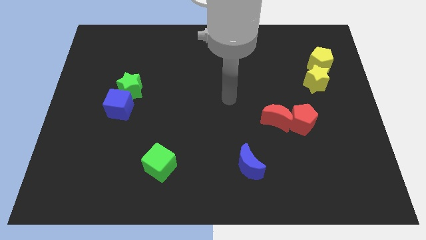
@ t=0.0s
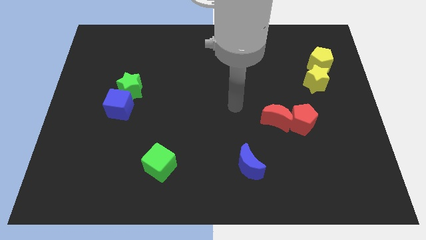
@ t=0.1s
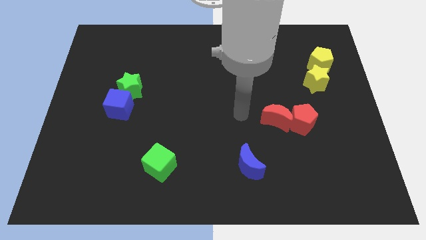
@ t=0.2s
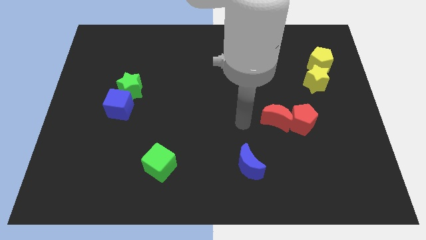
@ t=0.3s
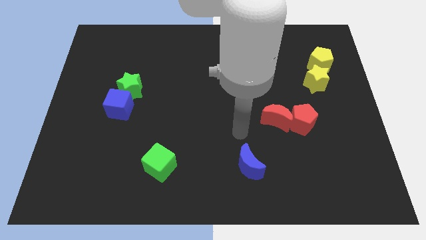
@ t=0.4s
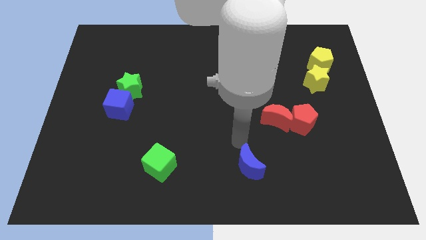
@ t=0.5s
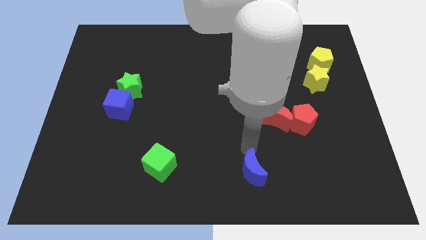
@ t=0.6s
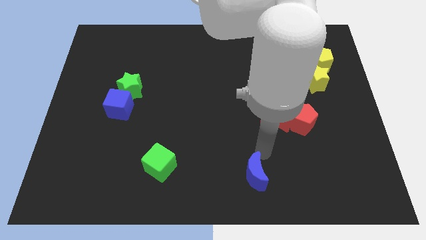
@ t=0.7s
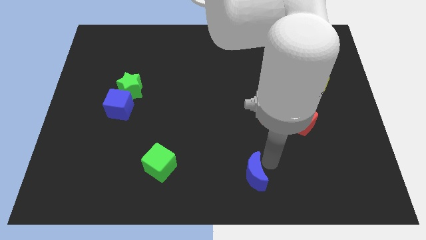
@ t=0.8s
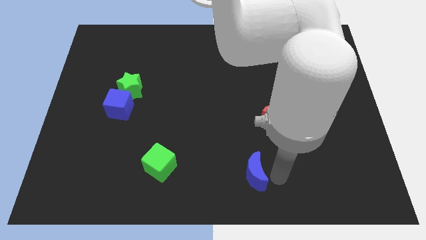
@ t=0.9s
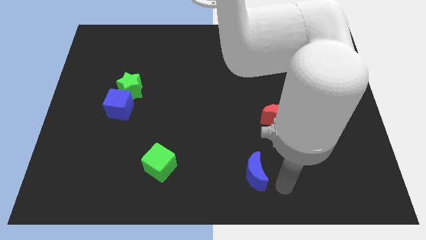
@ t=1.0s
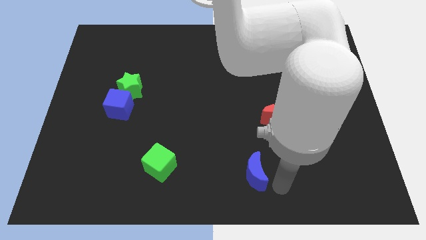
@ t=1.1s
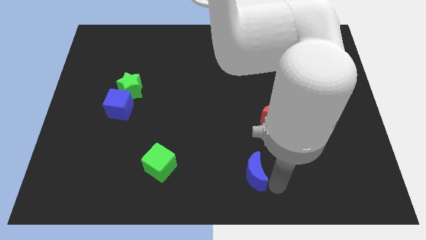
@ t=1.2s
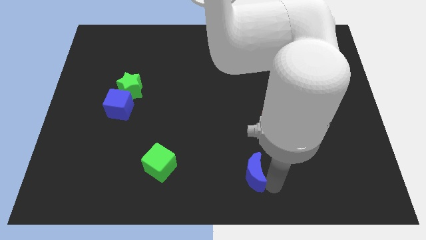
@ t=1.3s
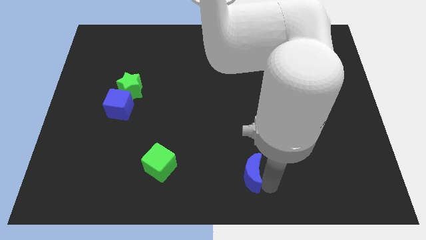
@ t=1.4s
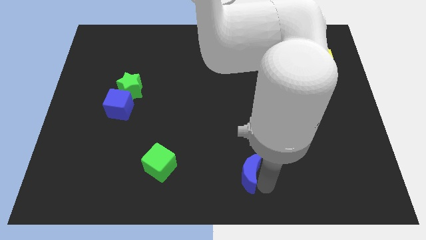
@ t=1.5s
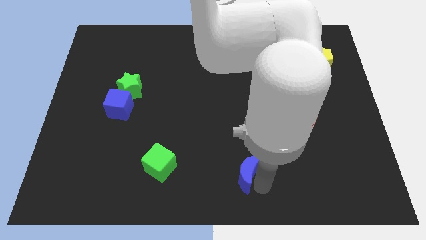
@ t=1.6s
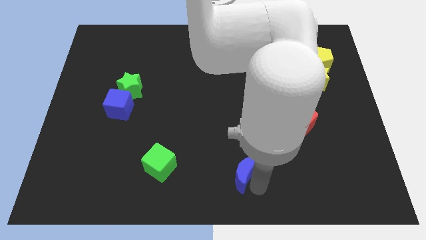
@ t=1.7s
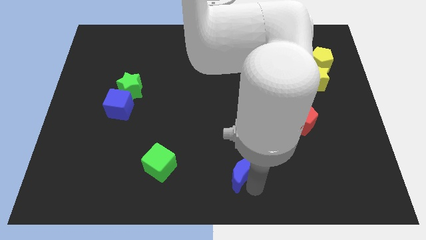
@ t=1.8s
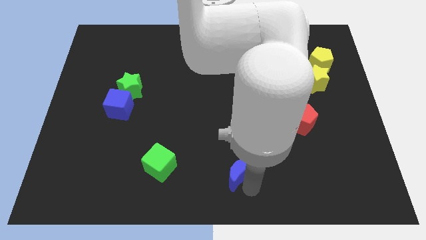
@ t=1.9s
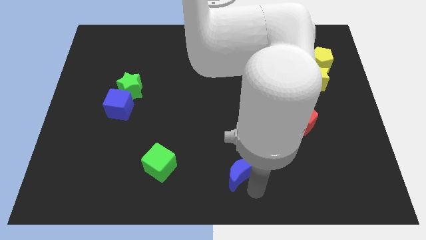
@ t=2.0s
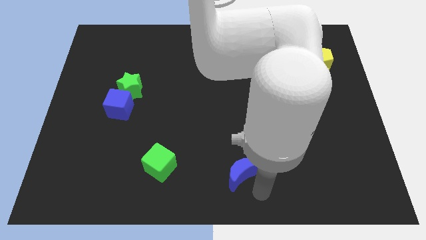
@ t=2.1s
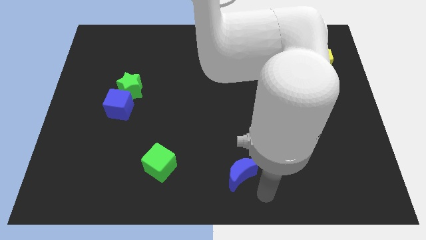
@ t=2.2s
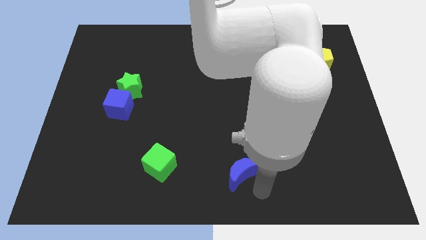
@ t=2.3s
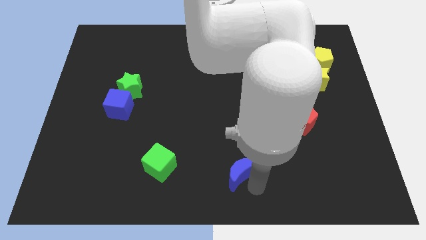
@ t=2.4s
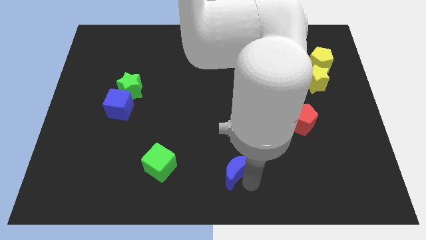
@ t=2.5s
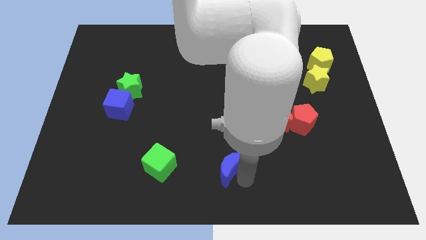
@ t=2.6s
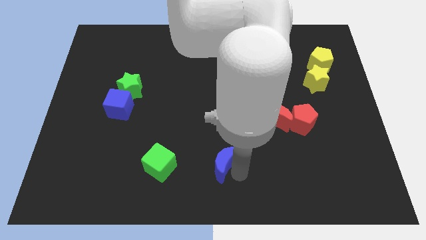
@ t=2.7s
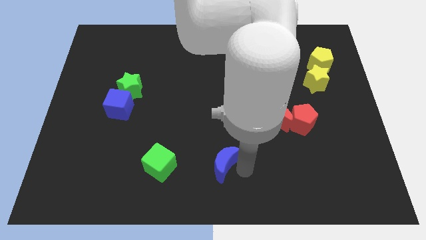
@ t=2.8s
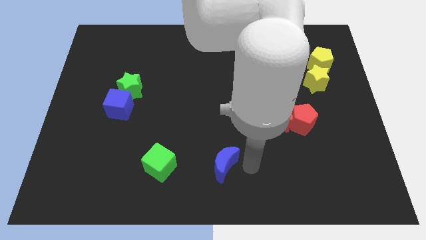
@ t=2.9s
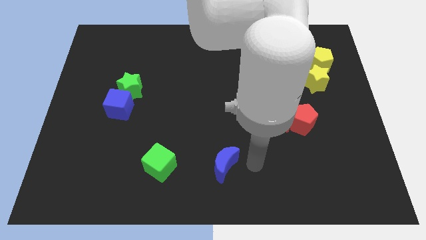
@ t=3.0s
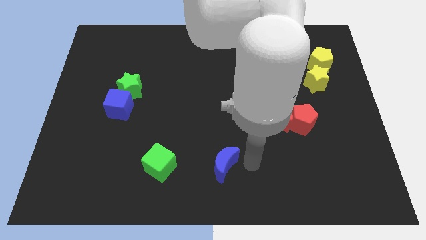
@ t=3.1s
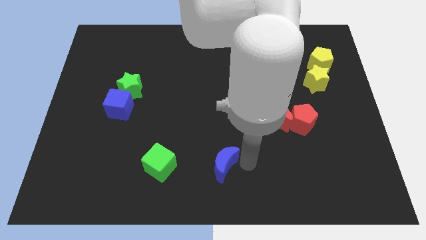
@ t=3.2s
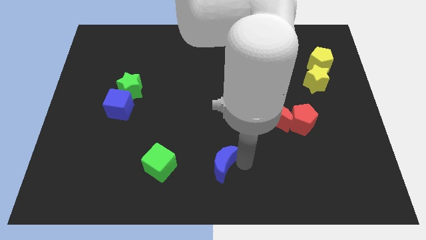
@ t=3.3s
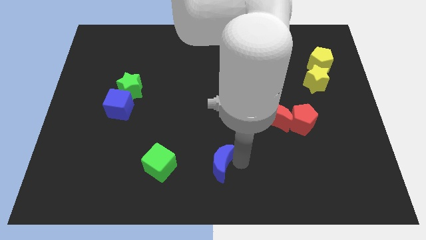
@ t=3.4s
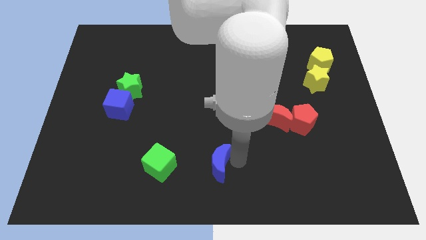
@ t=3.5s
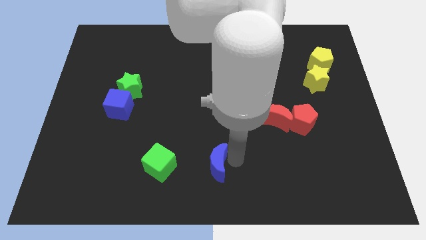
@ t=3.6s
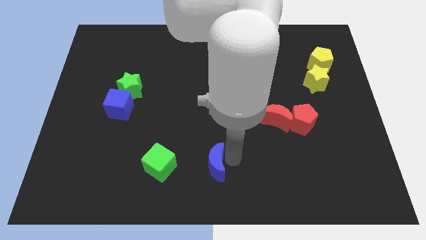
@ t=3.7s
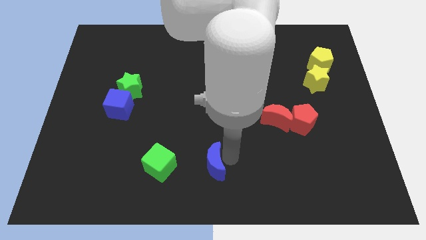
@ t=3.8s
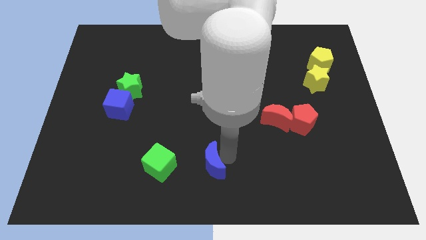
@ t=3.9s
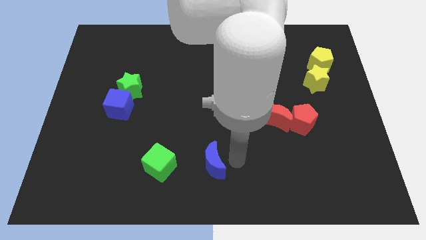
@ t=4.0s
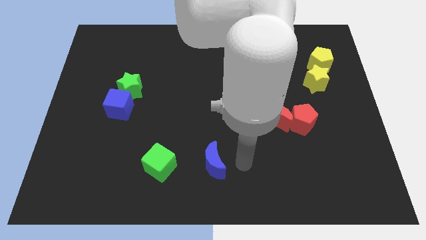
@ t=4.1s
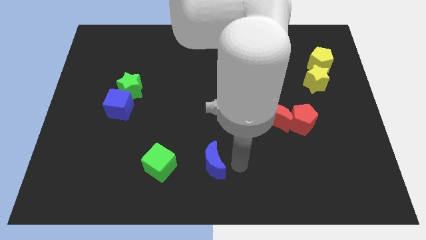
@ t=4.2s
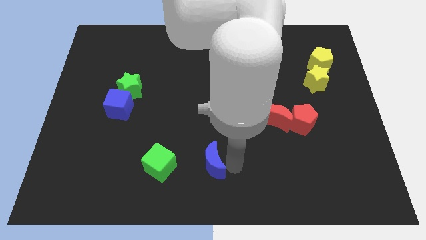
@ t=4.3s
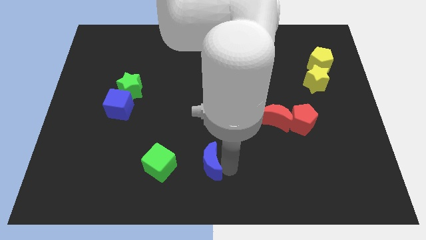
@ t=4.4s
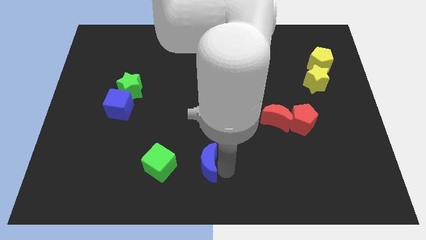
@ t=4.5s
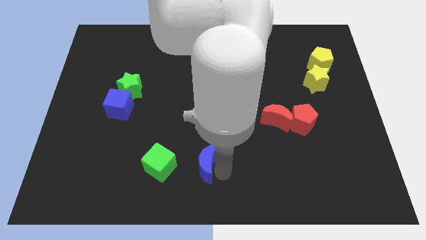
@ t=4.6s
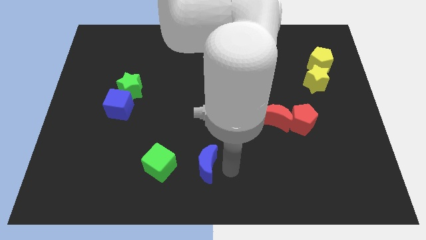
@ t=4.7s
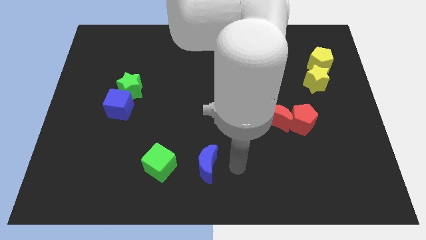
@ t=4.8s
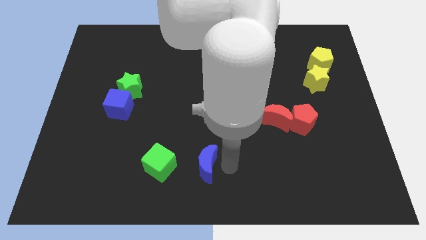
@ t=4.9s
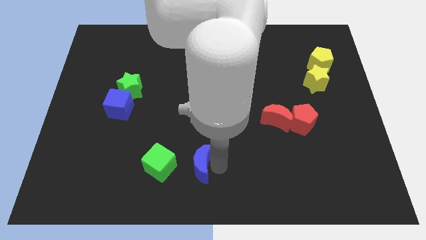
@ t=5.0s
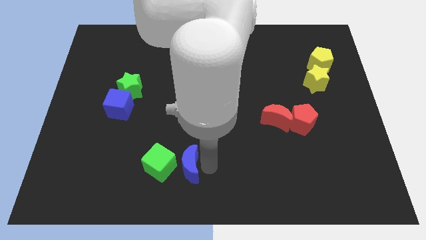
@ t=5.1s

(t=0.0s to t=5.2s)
put the blue moon to the green cube

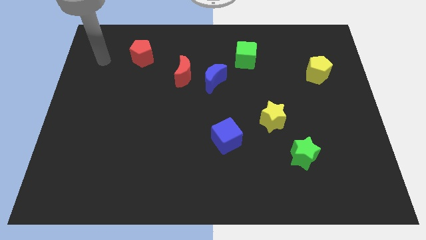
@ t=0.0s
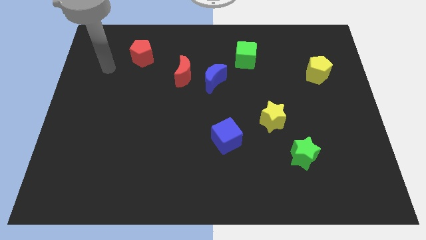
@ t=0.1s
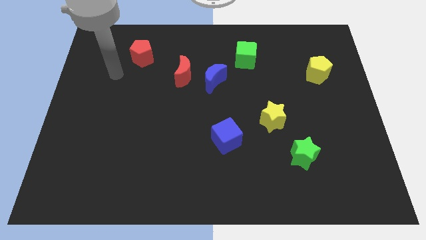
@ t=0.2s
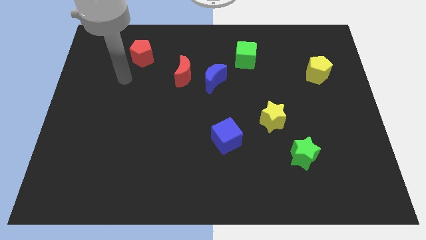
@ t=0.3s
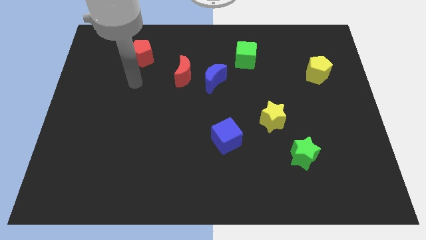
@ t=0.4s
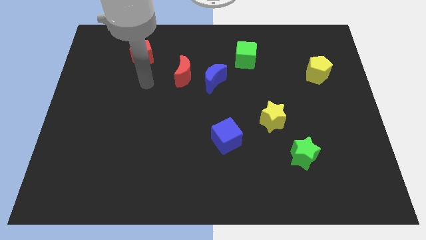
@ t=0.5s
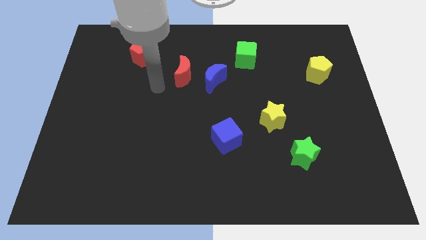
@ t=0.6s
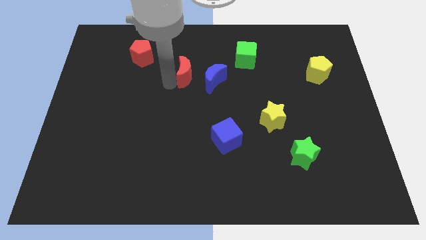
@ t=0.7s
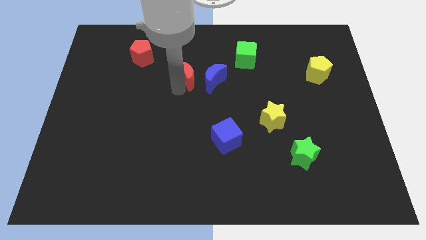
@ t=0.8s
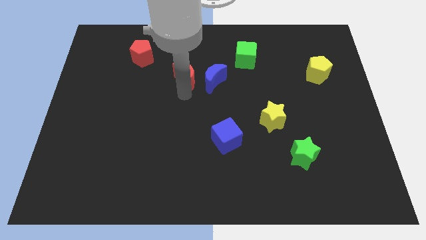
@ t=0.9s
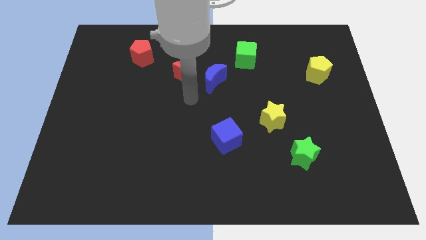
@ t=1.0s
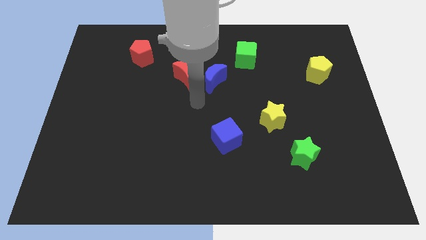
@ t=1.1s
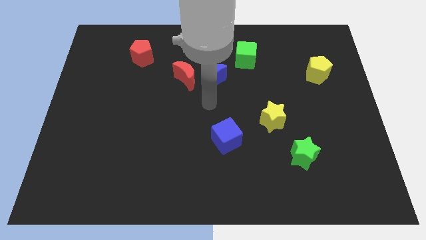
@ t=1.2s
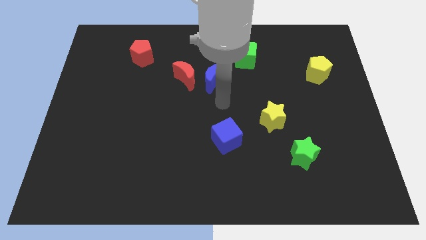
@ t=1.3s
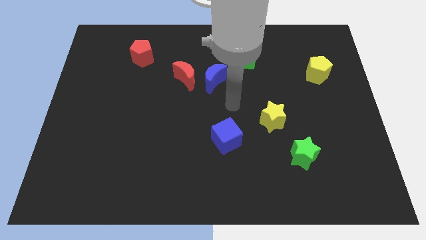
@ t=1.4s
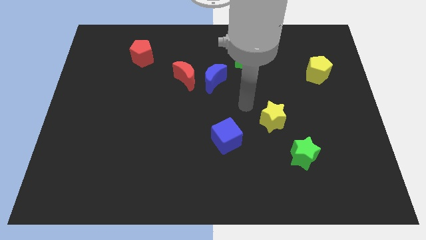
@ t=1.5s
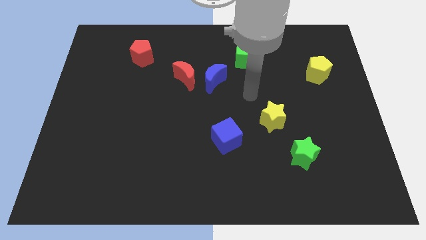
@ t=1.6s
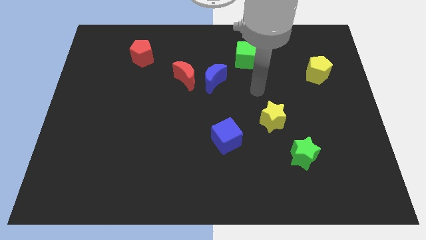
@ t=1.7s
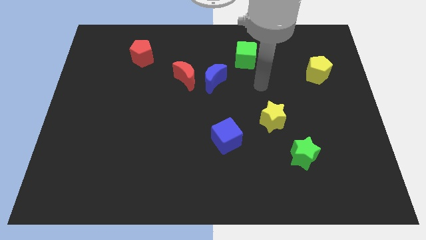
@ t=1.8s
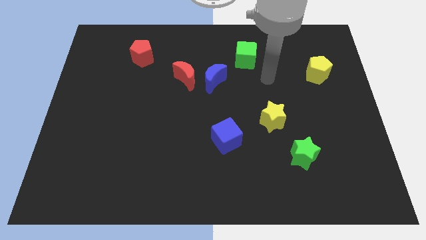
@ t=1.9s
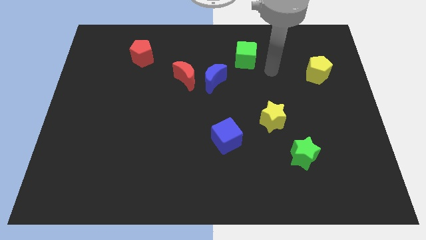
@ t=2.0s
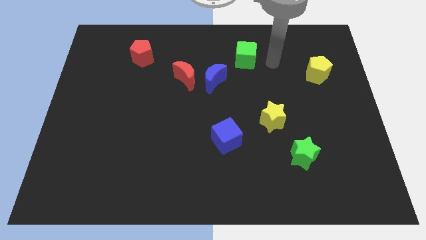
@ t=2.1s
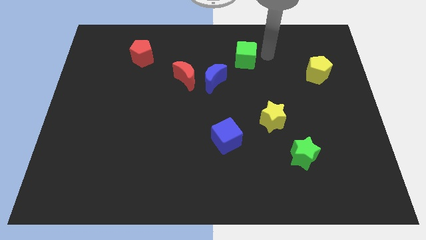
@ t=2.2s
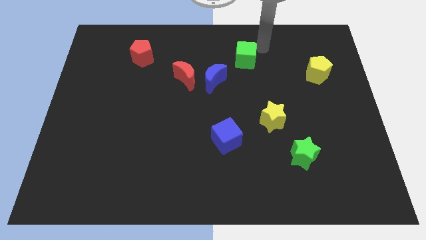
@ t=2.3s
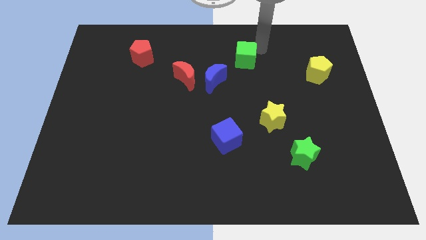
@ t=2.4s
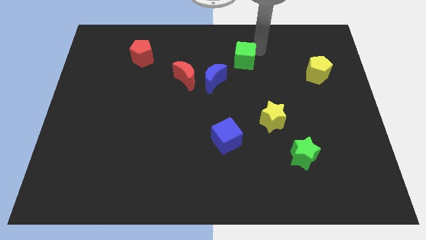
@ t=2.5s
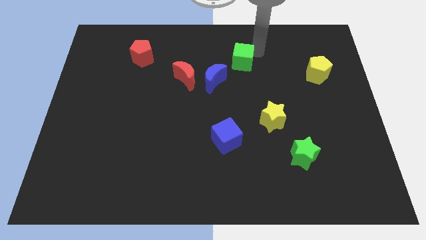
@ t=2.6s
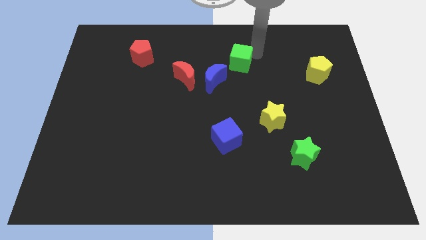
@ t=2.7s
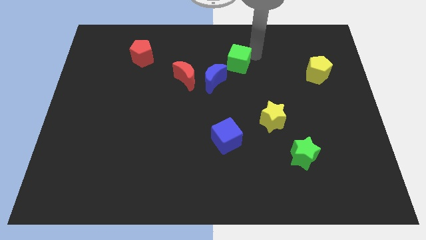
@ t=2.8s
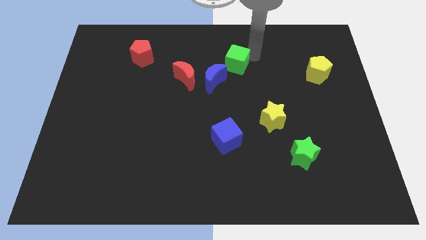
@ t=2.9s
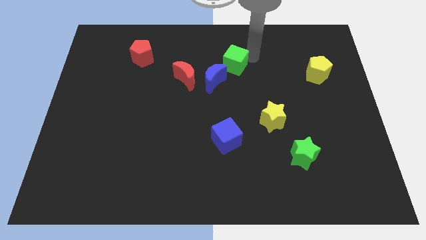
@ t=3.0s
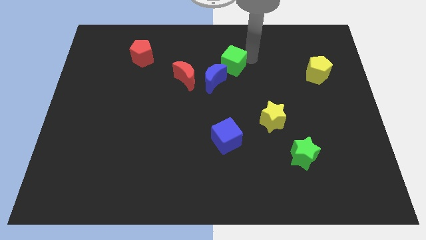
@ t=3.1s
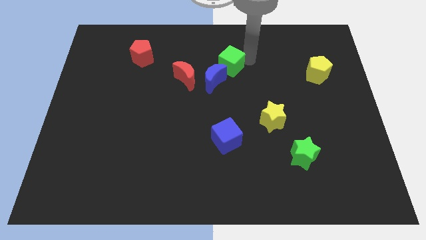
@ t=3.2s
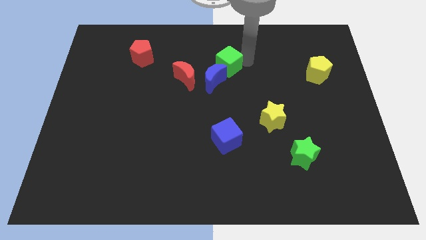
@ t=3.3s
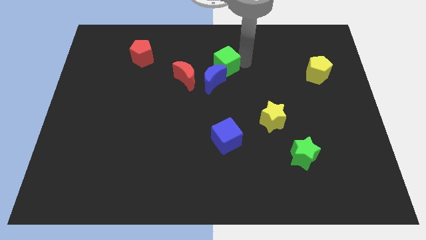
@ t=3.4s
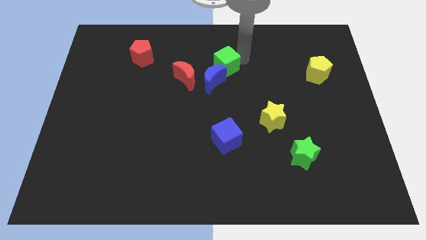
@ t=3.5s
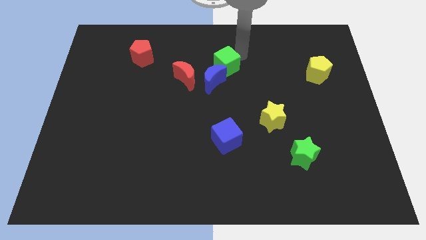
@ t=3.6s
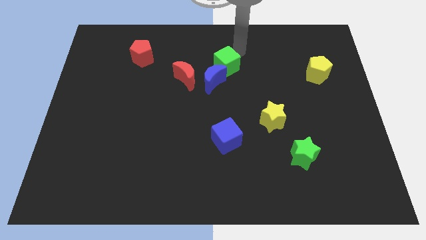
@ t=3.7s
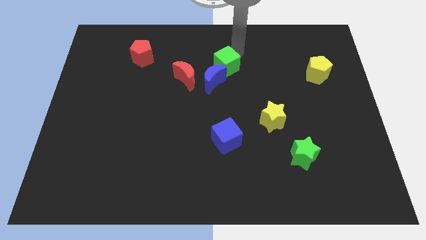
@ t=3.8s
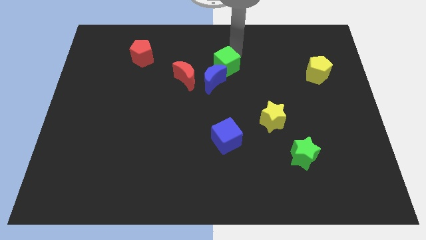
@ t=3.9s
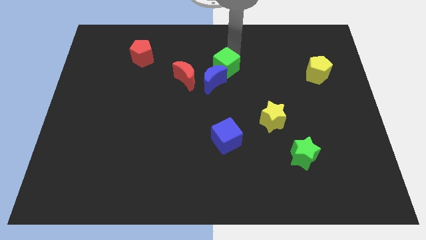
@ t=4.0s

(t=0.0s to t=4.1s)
push the green cube next to the blue moon
